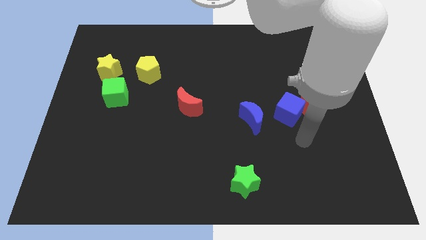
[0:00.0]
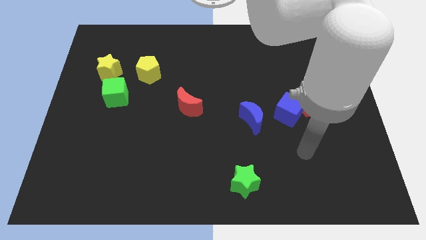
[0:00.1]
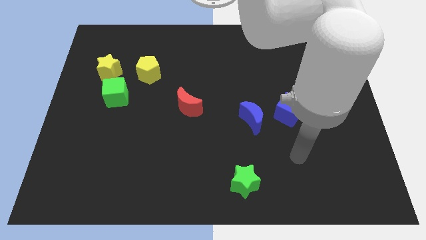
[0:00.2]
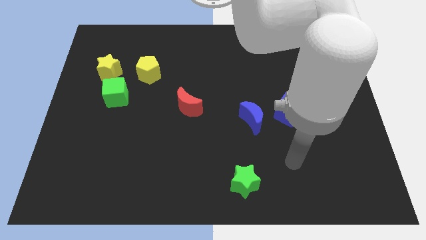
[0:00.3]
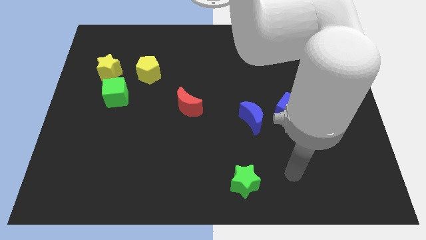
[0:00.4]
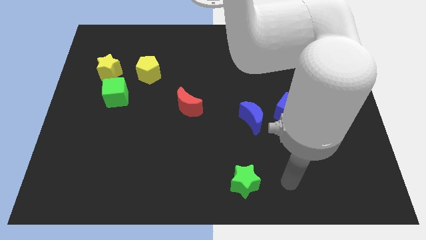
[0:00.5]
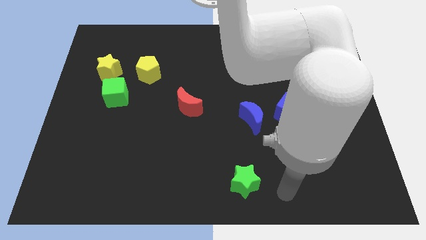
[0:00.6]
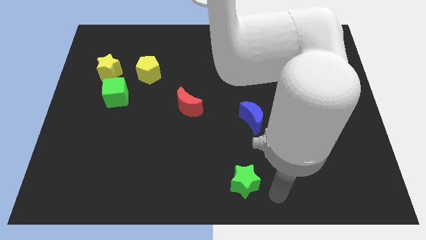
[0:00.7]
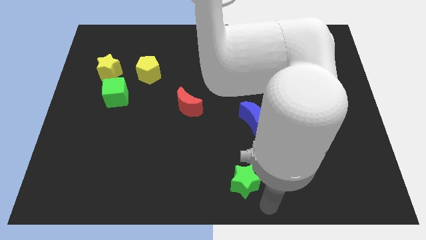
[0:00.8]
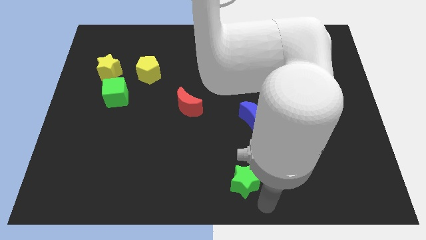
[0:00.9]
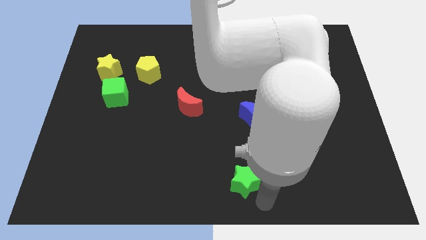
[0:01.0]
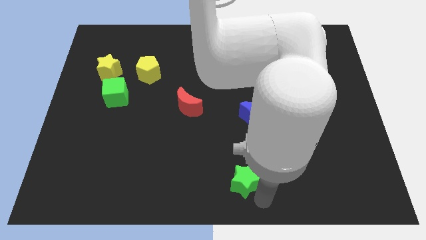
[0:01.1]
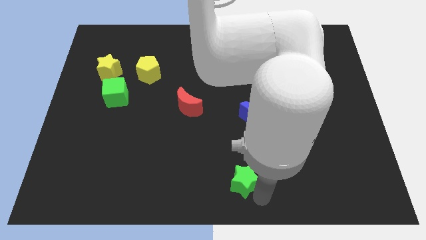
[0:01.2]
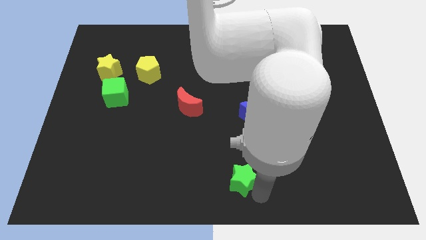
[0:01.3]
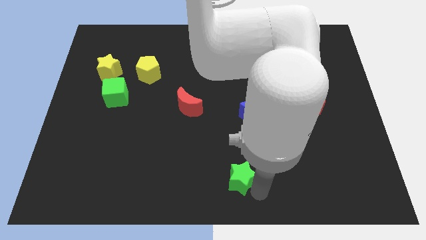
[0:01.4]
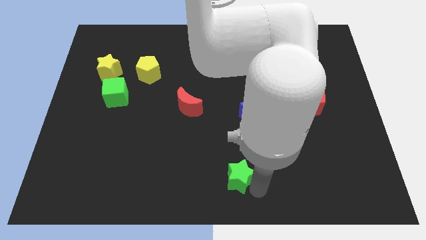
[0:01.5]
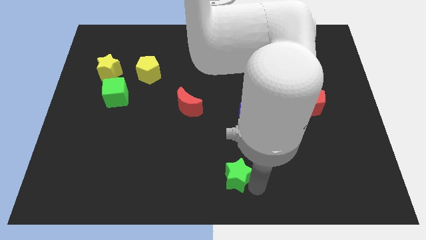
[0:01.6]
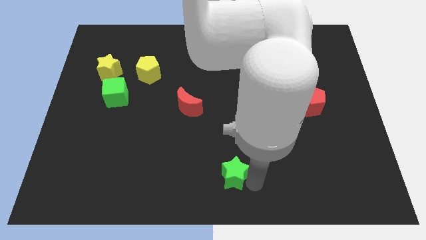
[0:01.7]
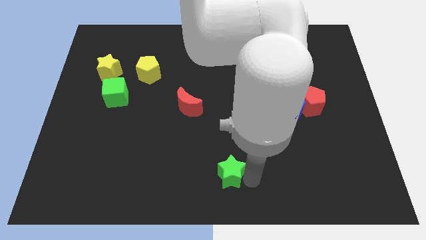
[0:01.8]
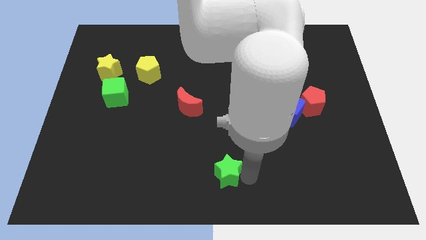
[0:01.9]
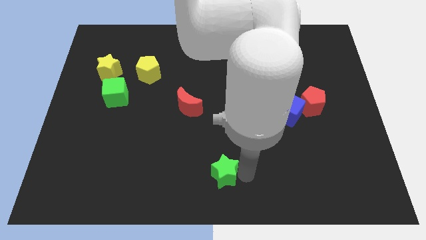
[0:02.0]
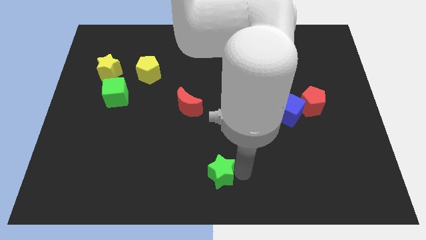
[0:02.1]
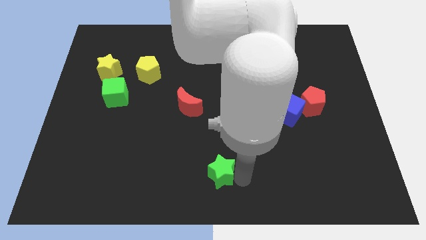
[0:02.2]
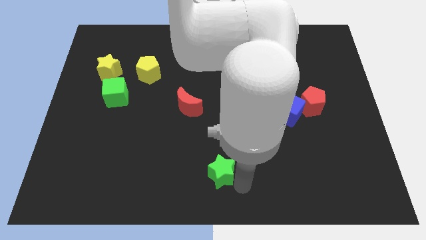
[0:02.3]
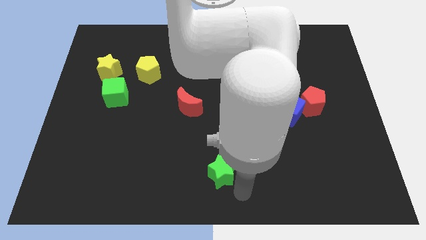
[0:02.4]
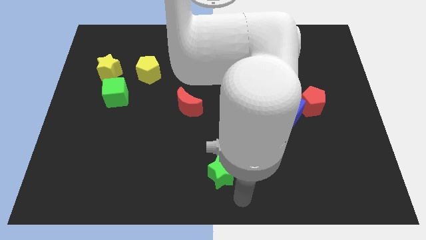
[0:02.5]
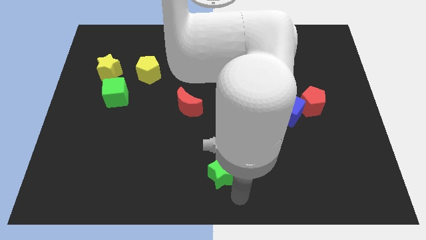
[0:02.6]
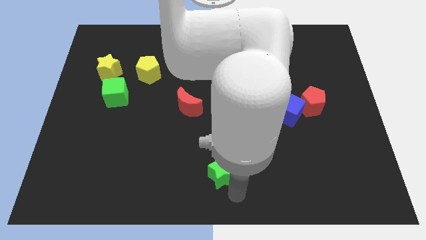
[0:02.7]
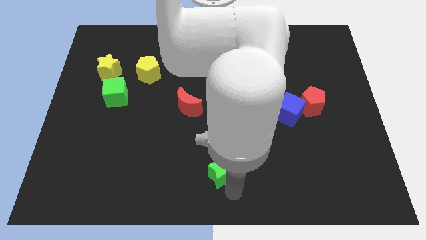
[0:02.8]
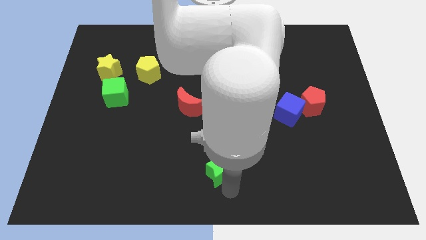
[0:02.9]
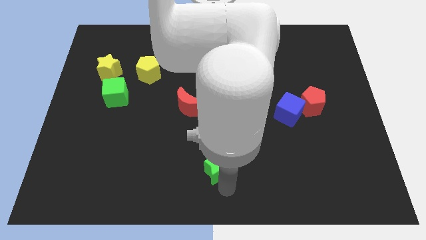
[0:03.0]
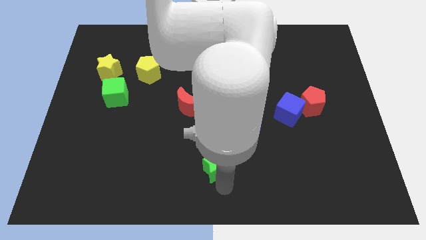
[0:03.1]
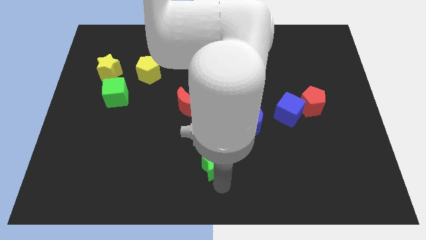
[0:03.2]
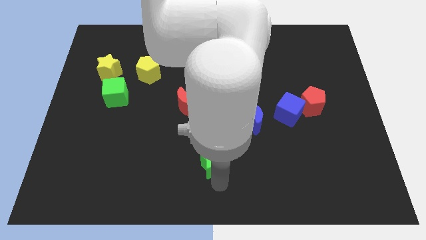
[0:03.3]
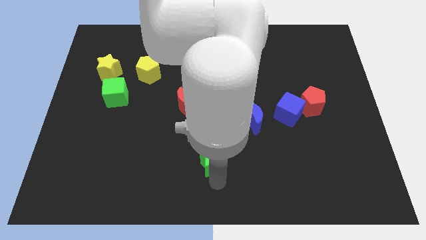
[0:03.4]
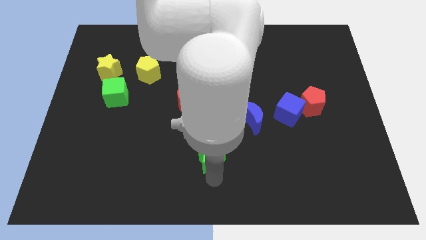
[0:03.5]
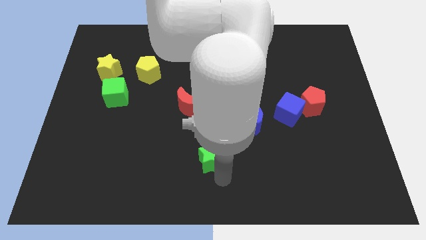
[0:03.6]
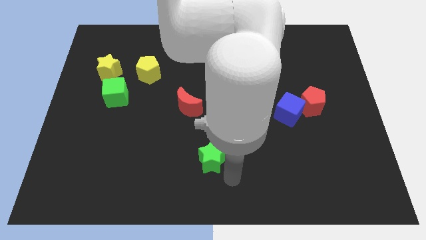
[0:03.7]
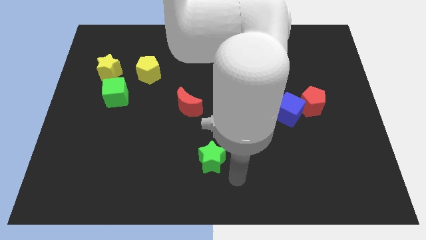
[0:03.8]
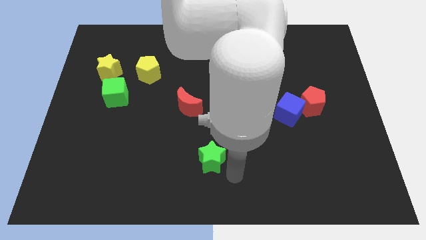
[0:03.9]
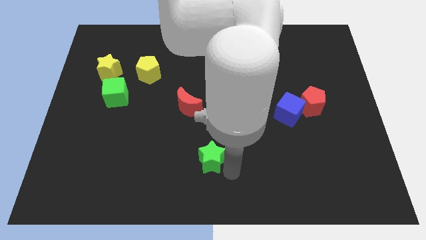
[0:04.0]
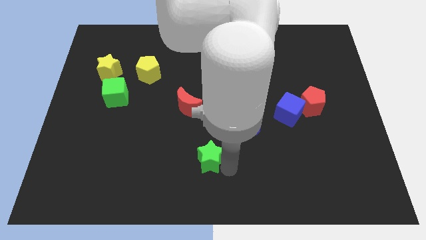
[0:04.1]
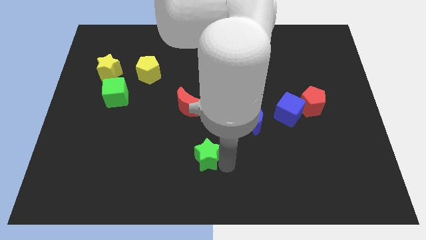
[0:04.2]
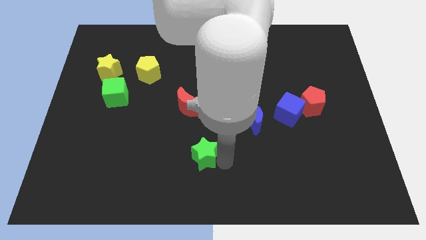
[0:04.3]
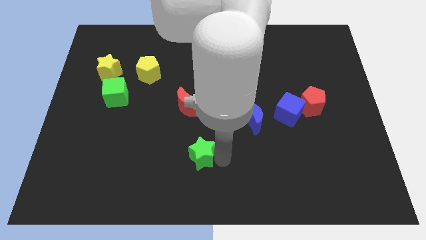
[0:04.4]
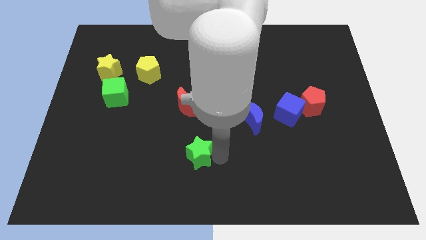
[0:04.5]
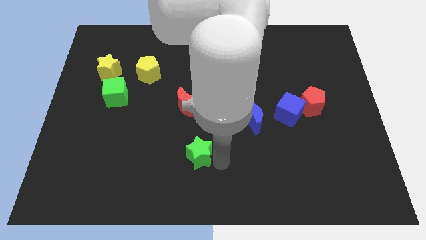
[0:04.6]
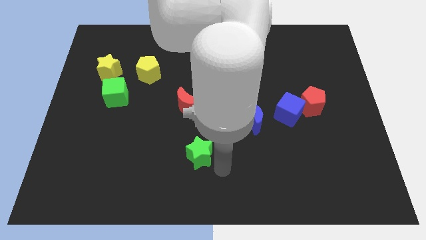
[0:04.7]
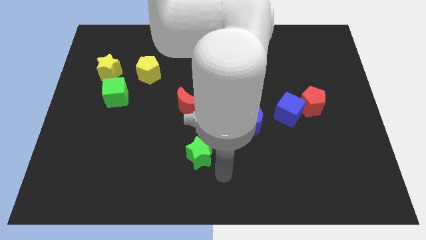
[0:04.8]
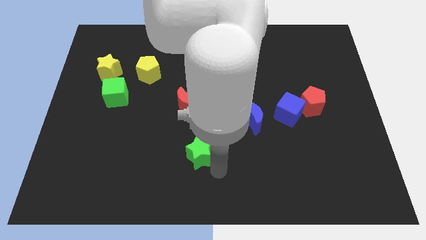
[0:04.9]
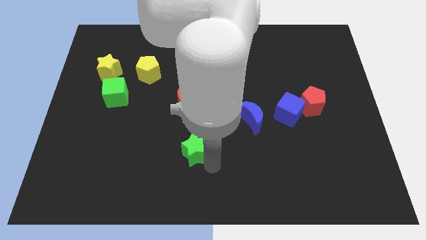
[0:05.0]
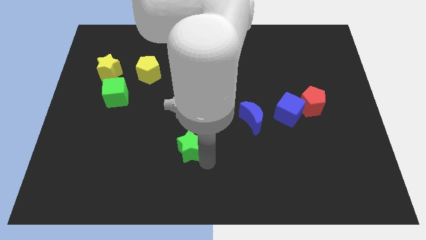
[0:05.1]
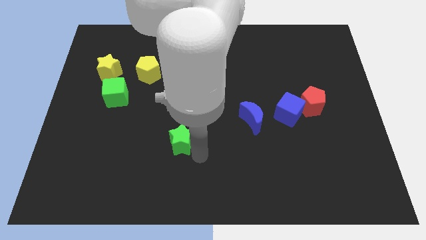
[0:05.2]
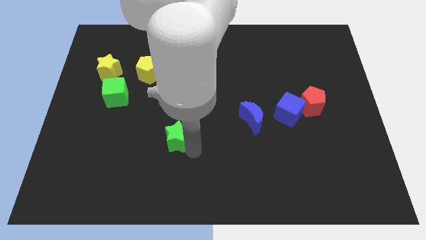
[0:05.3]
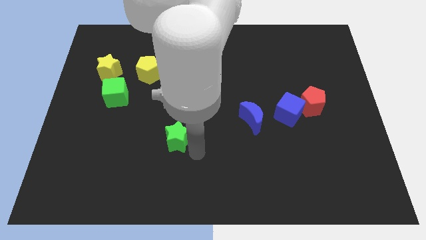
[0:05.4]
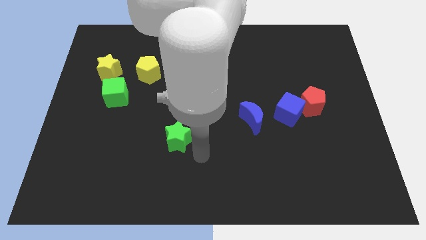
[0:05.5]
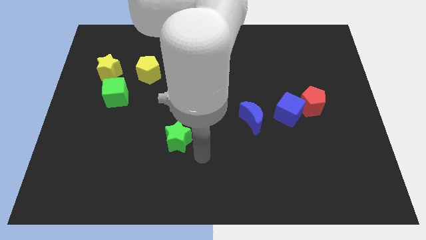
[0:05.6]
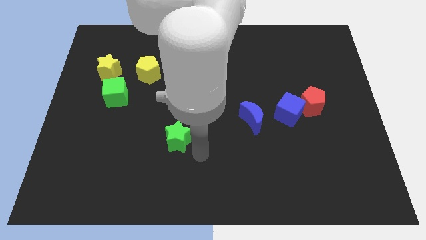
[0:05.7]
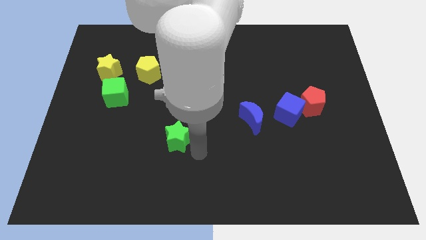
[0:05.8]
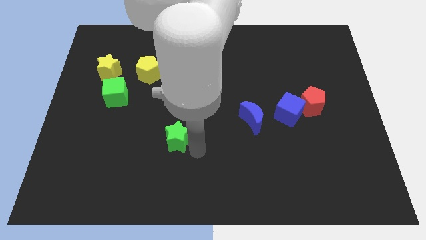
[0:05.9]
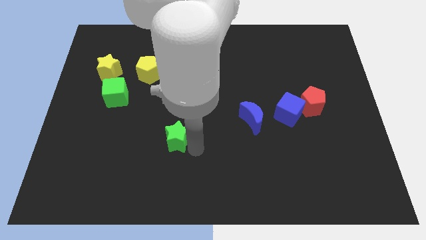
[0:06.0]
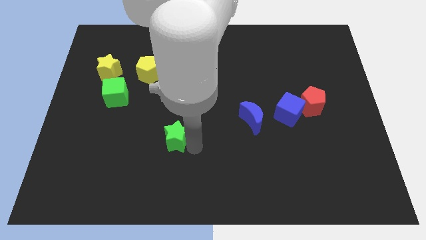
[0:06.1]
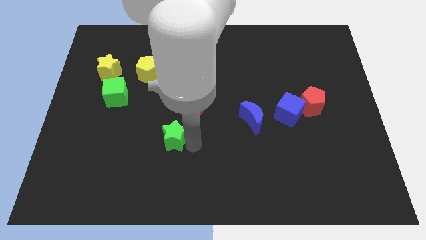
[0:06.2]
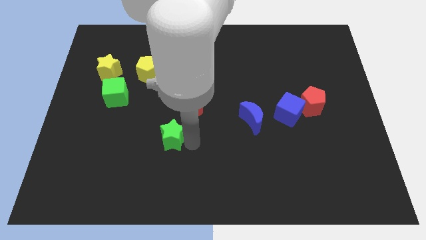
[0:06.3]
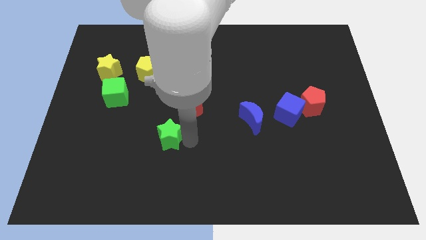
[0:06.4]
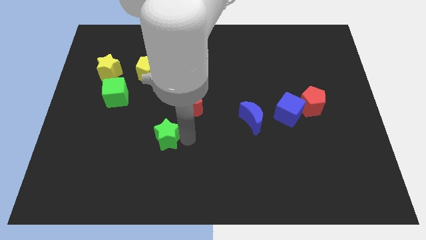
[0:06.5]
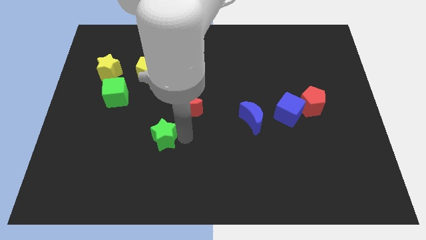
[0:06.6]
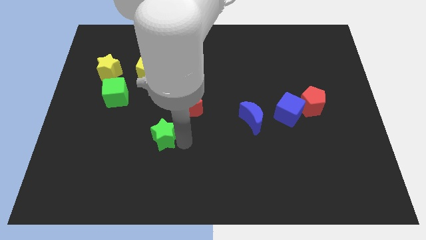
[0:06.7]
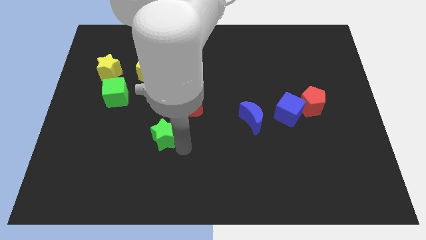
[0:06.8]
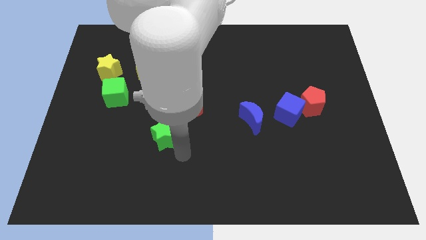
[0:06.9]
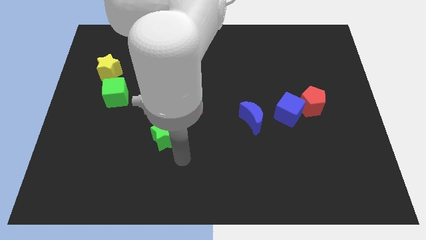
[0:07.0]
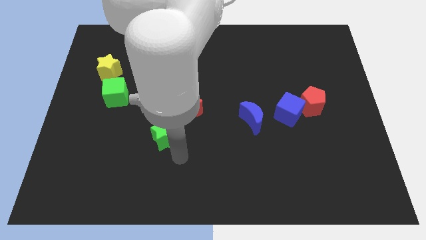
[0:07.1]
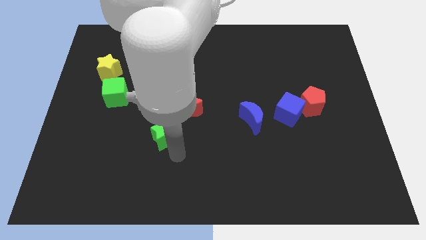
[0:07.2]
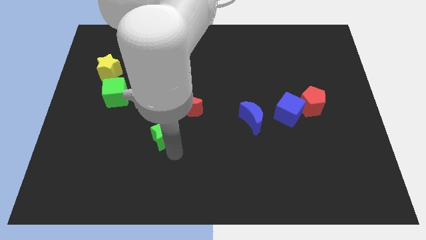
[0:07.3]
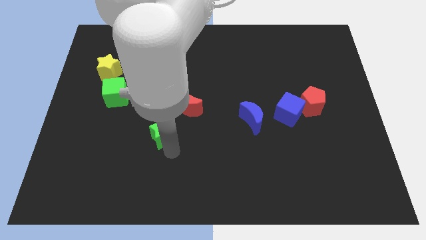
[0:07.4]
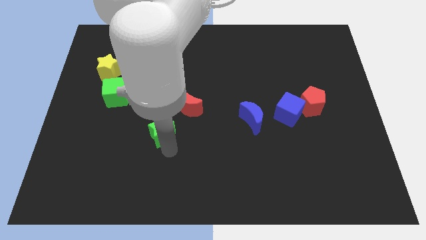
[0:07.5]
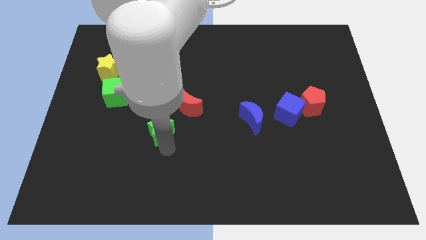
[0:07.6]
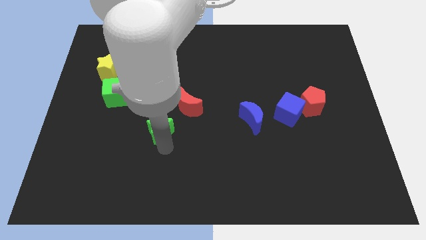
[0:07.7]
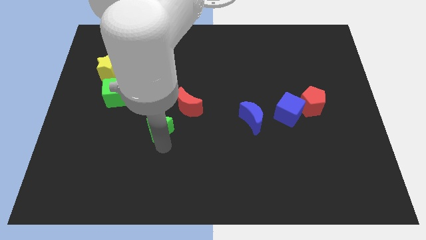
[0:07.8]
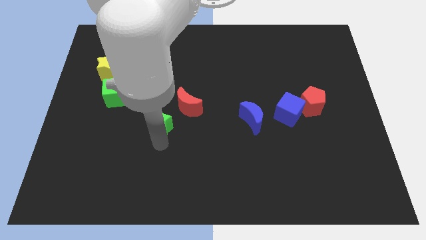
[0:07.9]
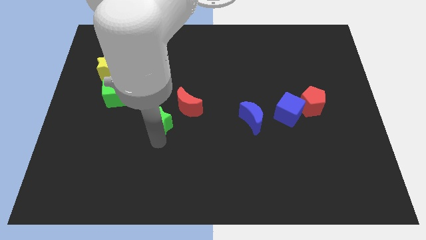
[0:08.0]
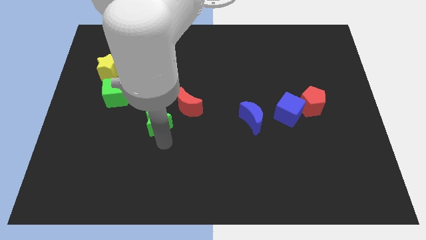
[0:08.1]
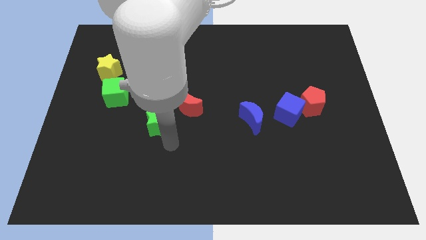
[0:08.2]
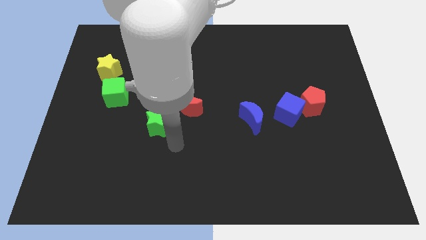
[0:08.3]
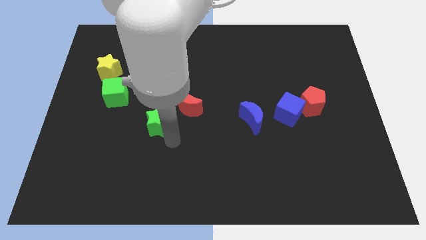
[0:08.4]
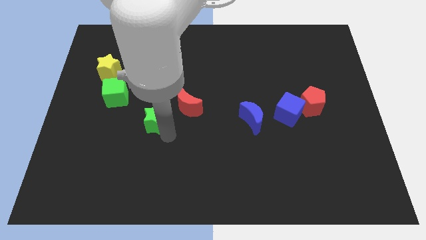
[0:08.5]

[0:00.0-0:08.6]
move the green star left of the red moon
